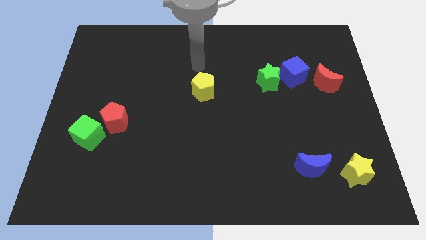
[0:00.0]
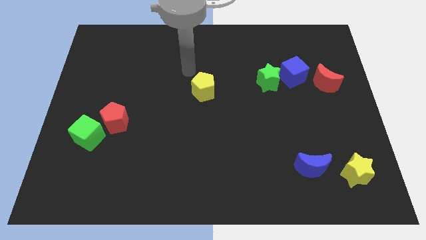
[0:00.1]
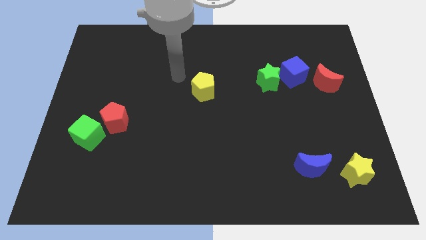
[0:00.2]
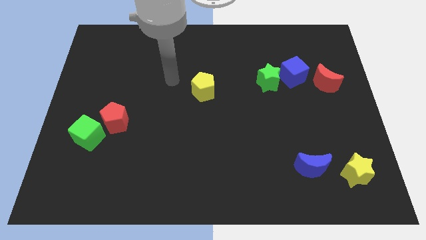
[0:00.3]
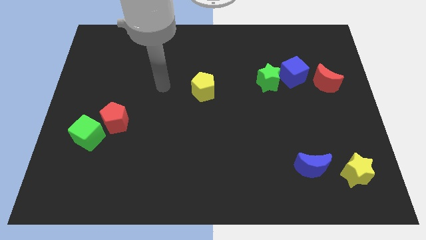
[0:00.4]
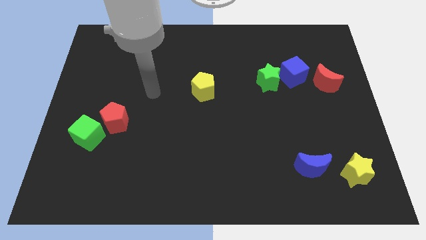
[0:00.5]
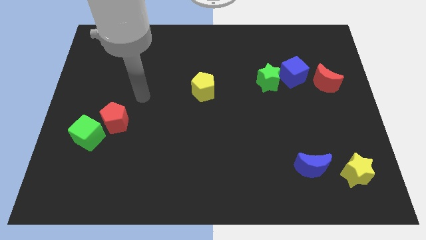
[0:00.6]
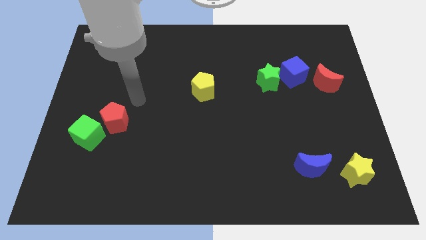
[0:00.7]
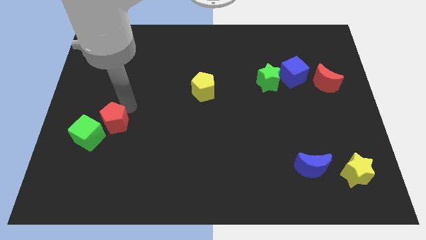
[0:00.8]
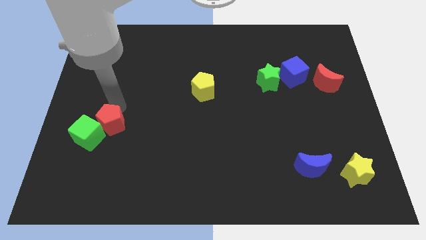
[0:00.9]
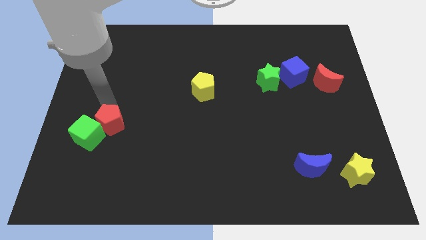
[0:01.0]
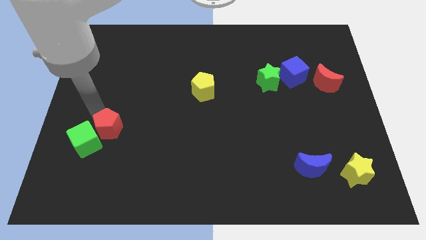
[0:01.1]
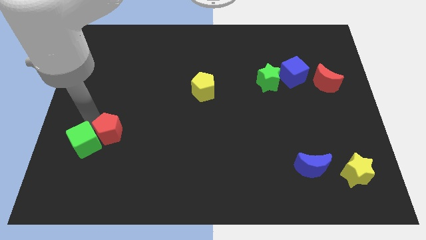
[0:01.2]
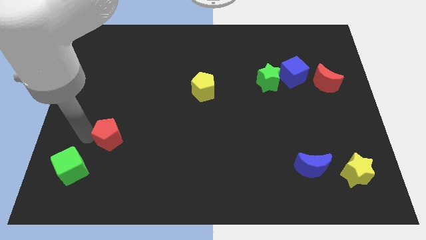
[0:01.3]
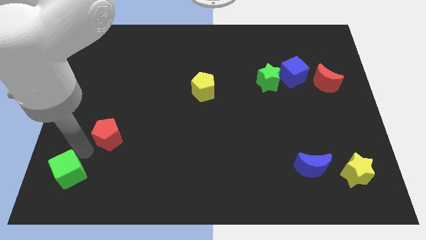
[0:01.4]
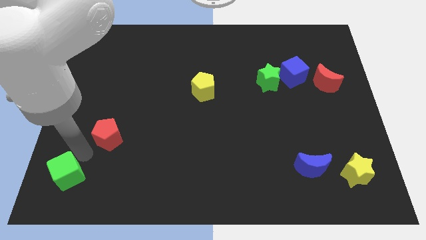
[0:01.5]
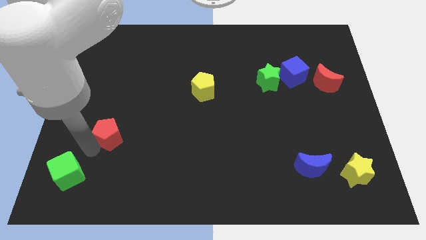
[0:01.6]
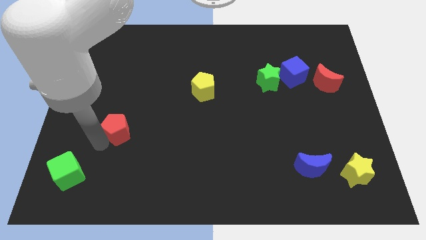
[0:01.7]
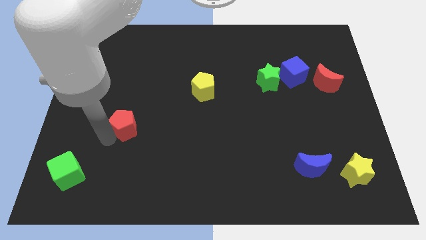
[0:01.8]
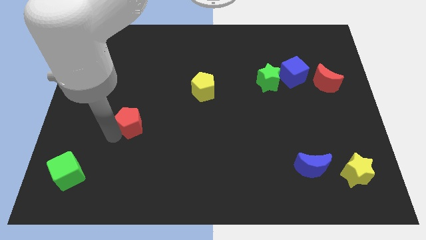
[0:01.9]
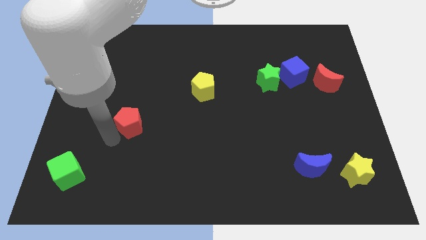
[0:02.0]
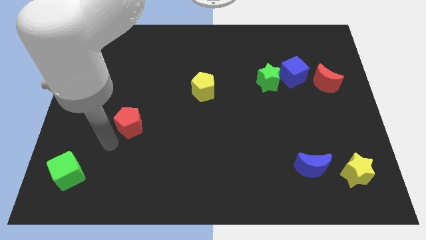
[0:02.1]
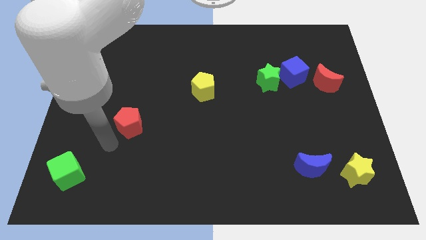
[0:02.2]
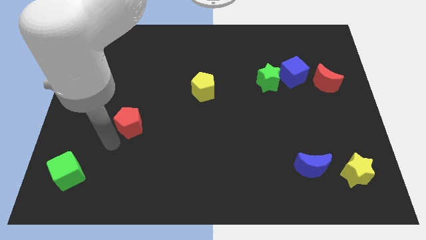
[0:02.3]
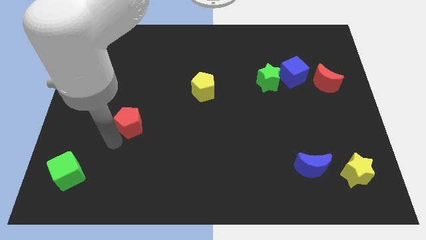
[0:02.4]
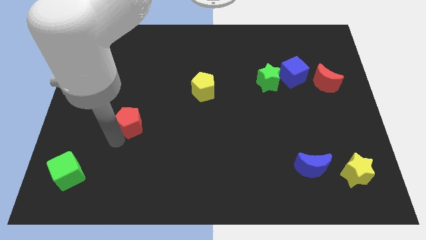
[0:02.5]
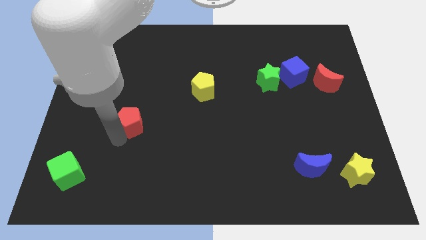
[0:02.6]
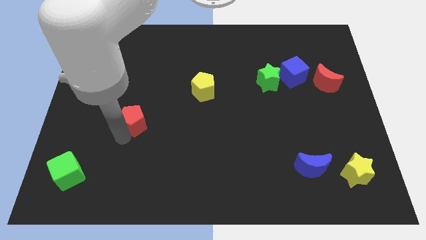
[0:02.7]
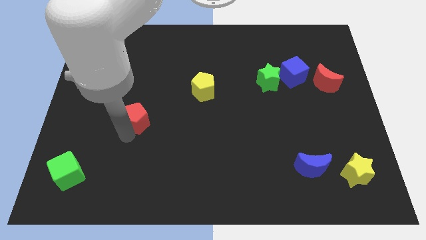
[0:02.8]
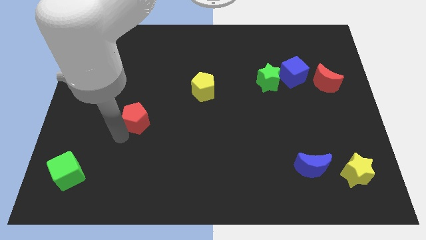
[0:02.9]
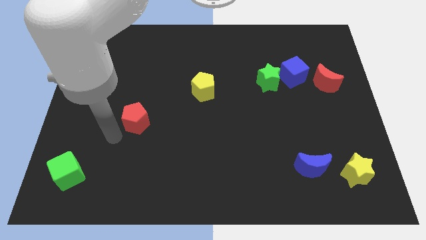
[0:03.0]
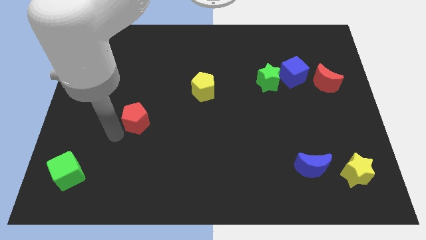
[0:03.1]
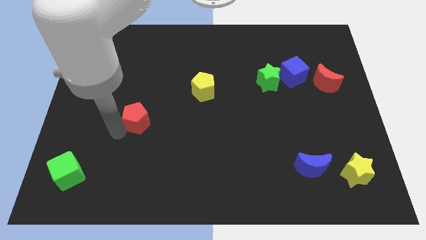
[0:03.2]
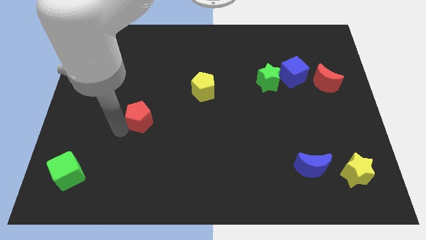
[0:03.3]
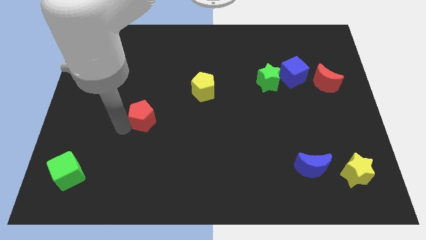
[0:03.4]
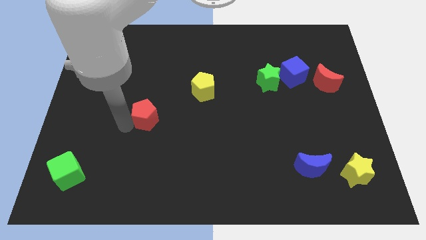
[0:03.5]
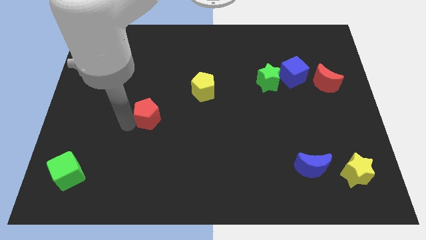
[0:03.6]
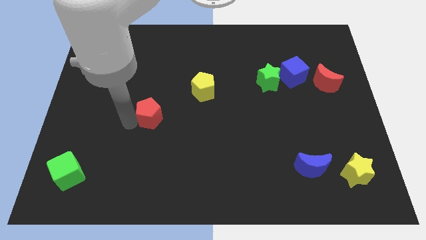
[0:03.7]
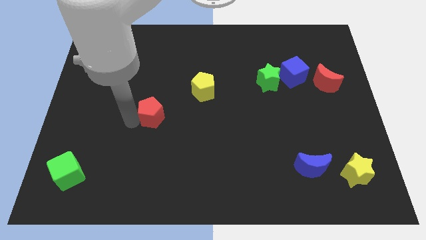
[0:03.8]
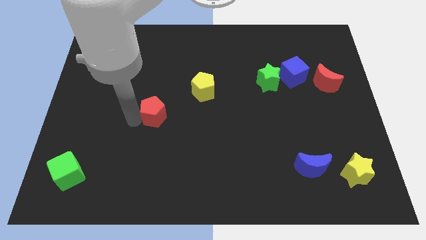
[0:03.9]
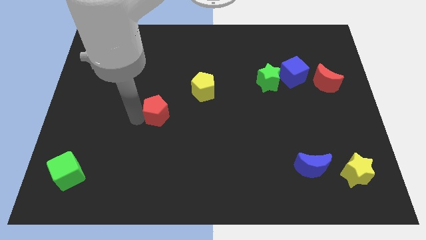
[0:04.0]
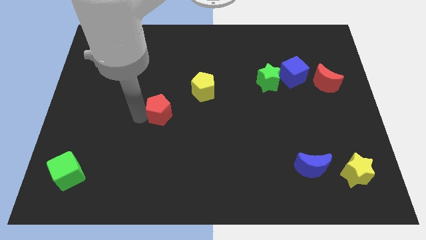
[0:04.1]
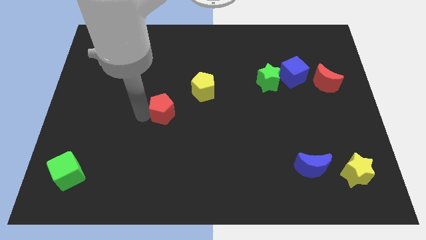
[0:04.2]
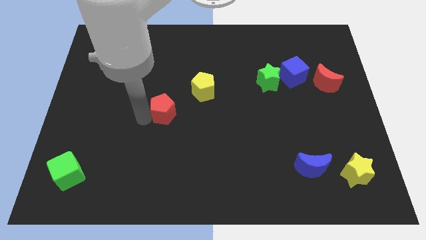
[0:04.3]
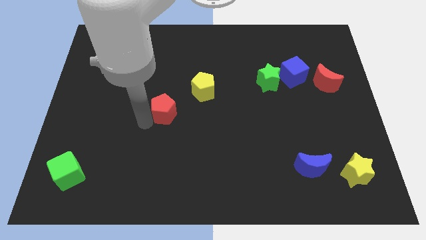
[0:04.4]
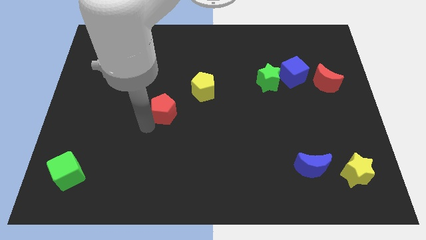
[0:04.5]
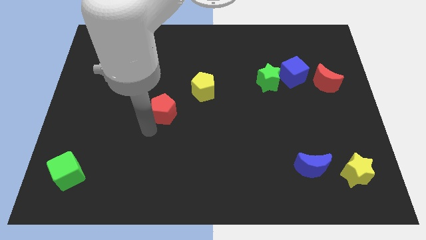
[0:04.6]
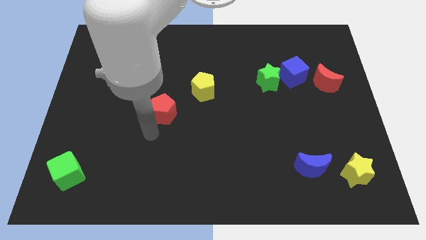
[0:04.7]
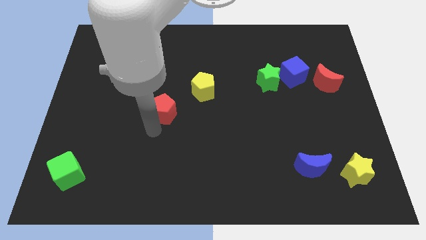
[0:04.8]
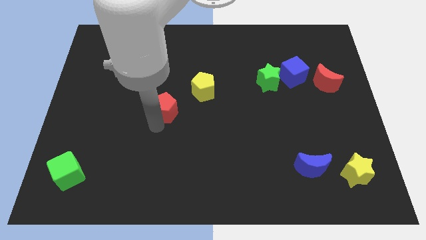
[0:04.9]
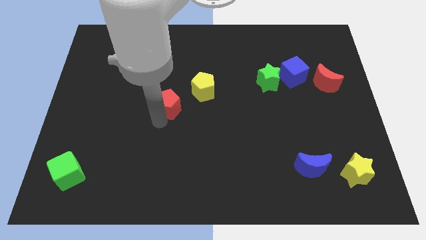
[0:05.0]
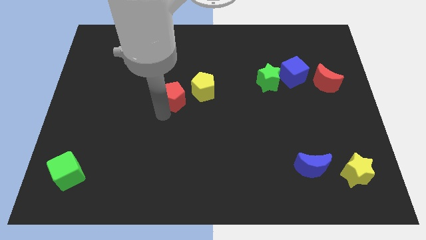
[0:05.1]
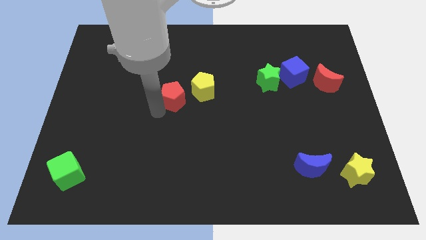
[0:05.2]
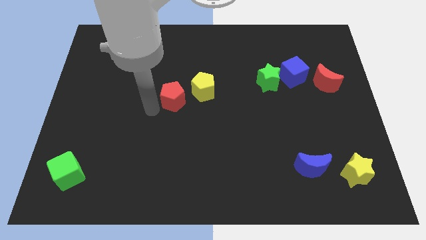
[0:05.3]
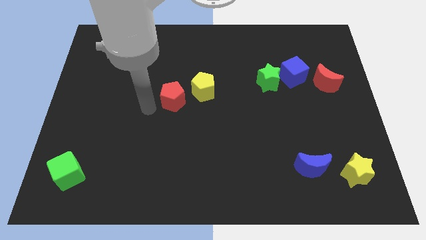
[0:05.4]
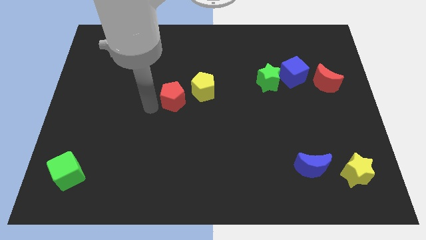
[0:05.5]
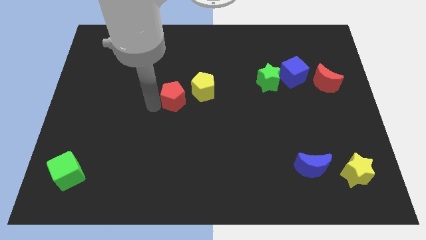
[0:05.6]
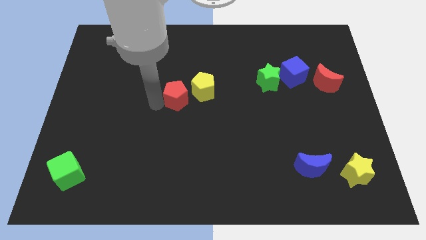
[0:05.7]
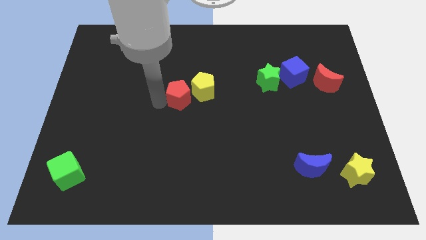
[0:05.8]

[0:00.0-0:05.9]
put the red pentagon to the yellow pentagon
